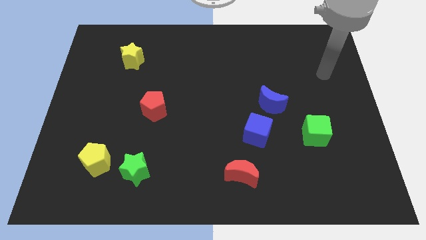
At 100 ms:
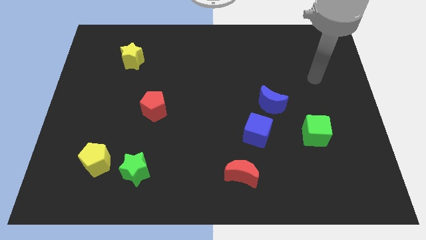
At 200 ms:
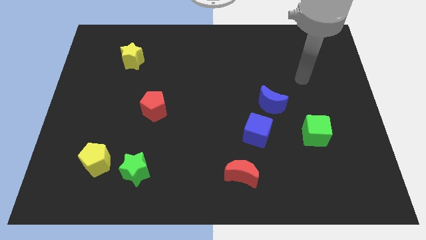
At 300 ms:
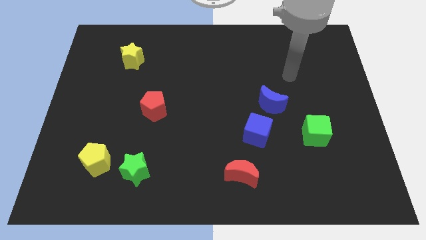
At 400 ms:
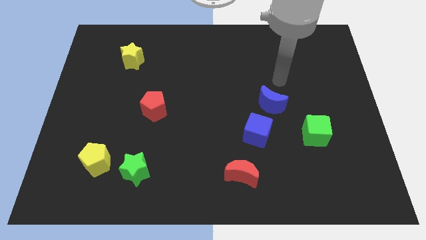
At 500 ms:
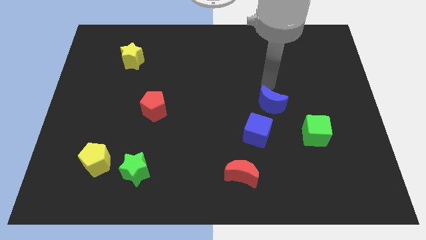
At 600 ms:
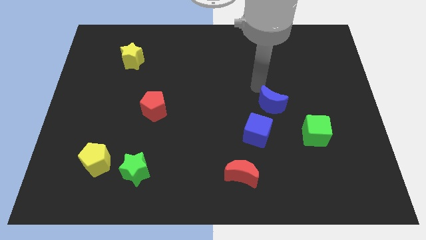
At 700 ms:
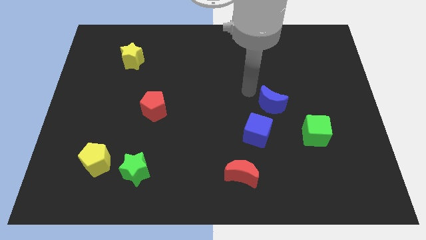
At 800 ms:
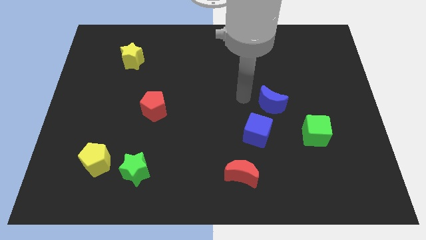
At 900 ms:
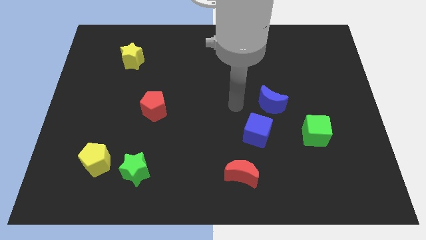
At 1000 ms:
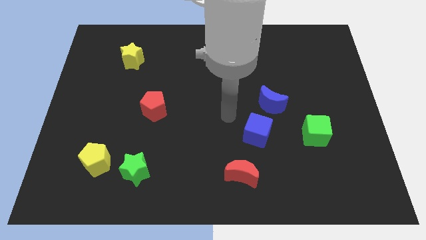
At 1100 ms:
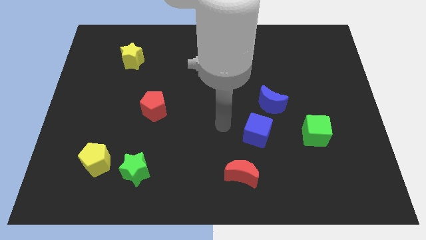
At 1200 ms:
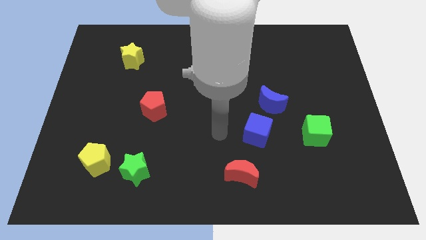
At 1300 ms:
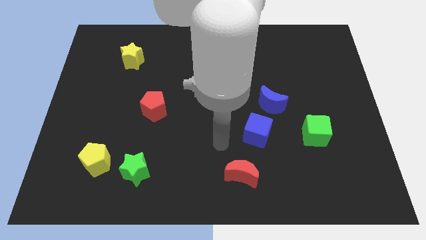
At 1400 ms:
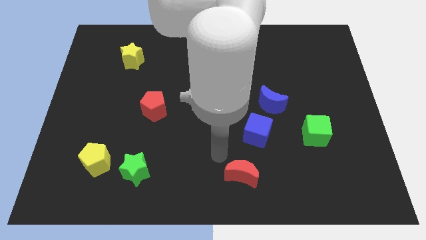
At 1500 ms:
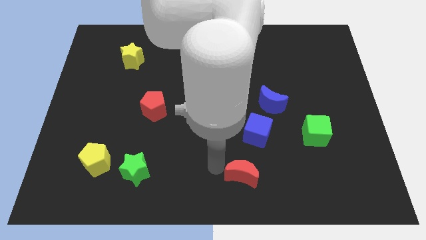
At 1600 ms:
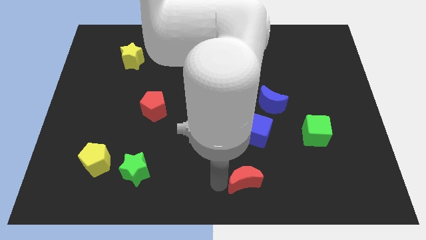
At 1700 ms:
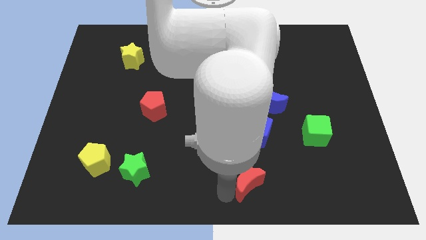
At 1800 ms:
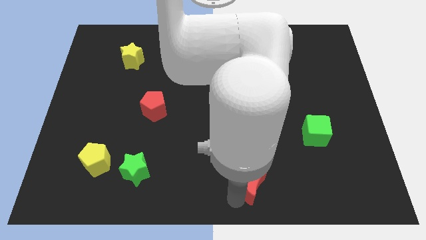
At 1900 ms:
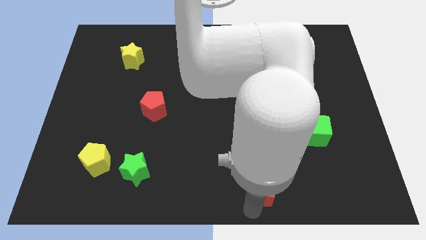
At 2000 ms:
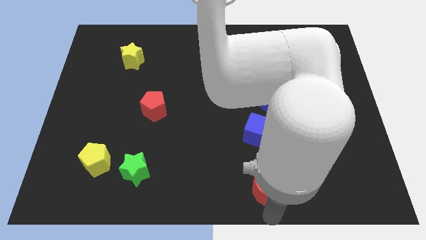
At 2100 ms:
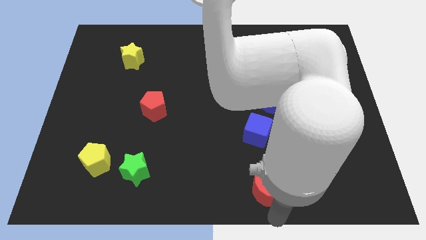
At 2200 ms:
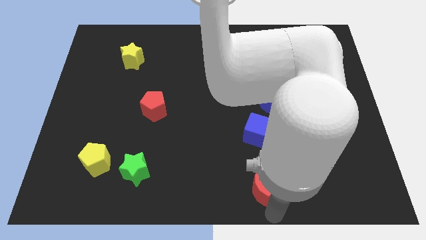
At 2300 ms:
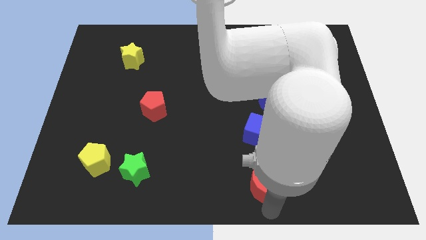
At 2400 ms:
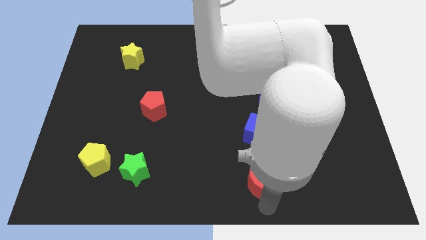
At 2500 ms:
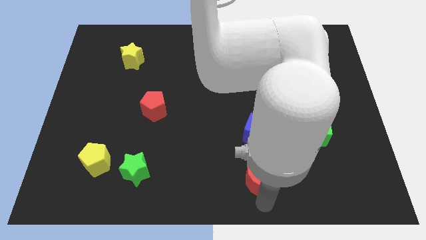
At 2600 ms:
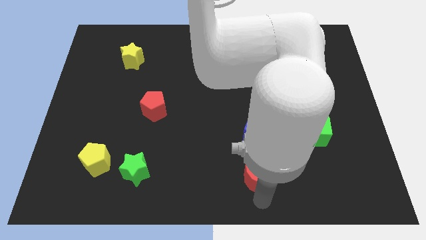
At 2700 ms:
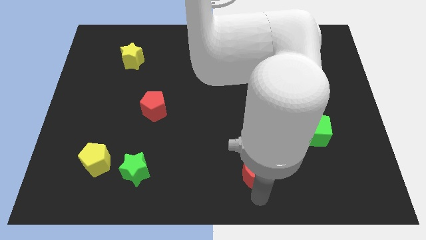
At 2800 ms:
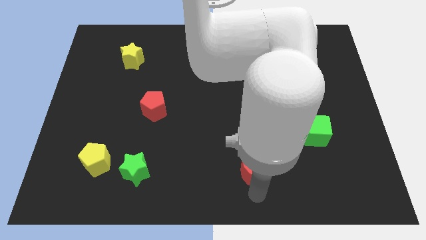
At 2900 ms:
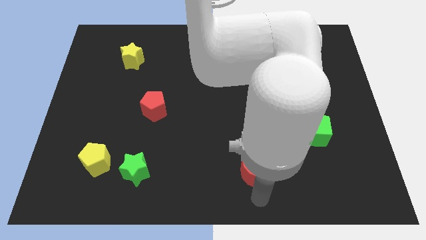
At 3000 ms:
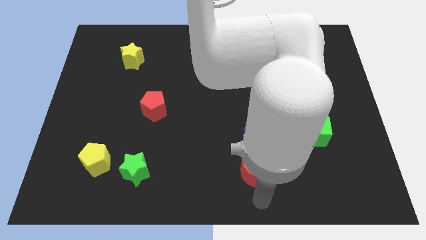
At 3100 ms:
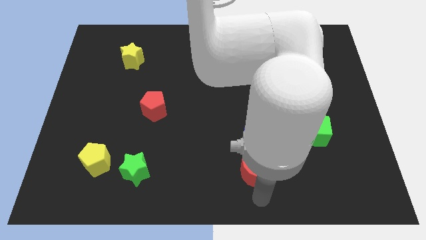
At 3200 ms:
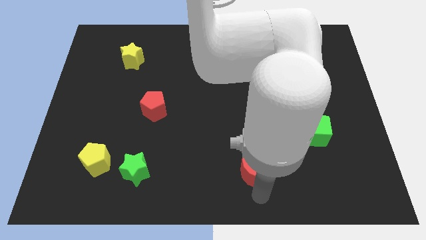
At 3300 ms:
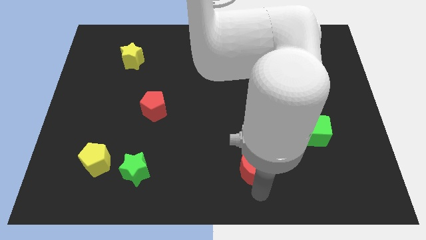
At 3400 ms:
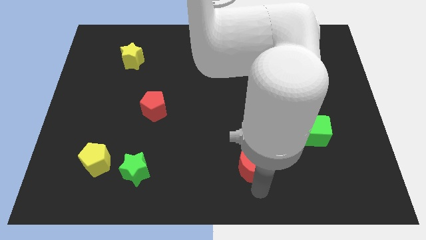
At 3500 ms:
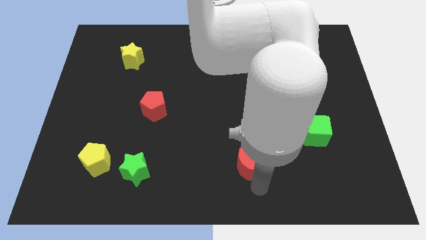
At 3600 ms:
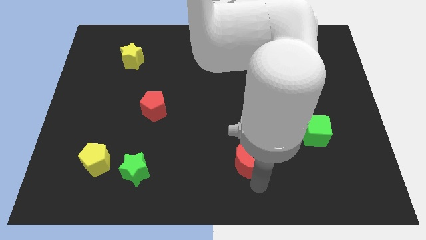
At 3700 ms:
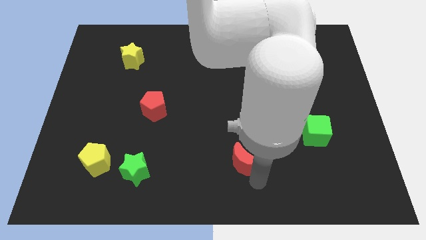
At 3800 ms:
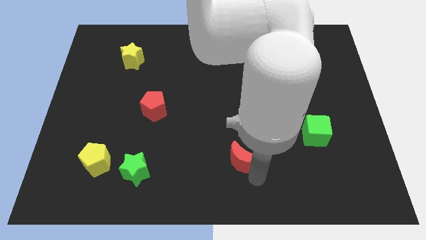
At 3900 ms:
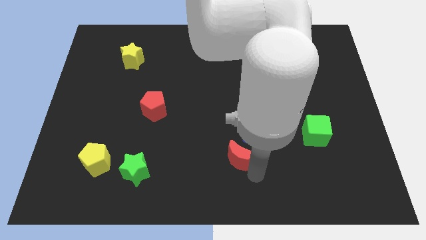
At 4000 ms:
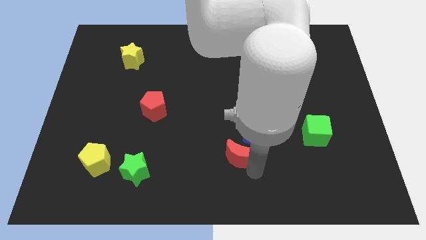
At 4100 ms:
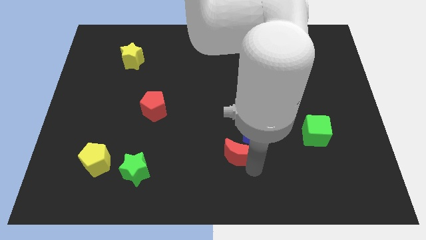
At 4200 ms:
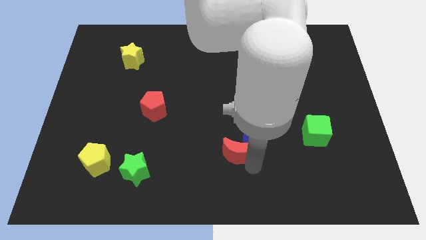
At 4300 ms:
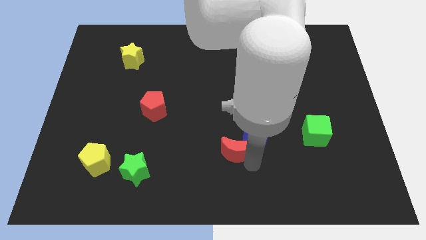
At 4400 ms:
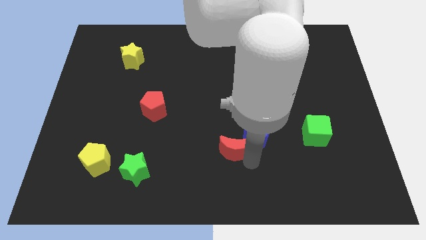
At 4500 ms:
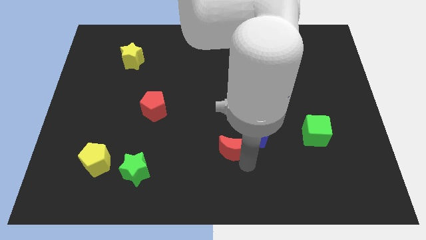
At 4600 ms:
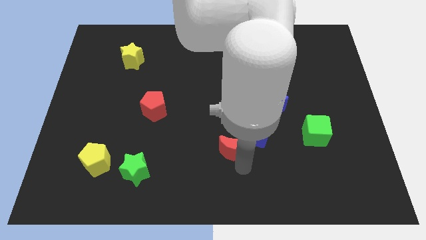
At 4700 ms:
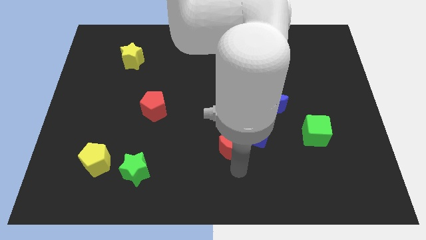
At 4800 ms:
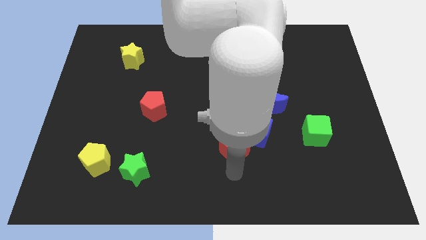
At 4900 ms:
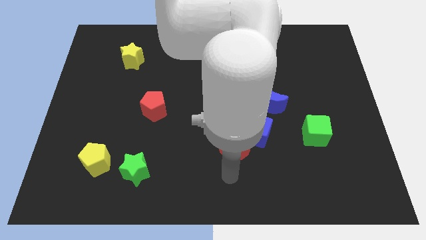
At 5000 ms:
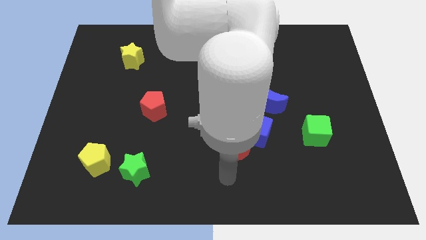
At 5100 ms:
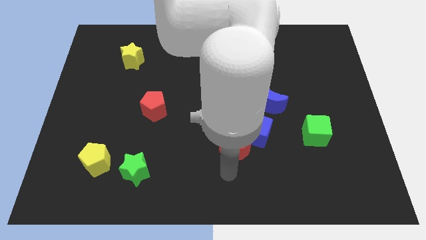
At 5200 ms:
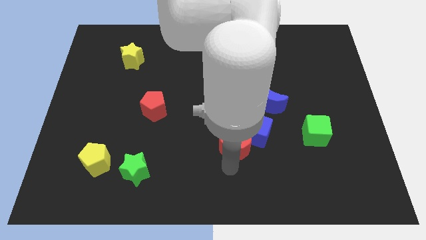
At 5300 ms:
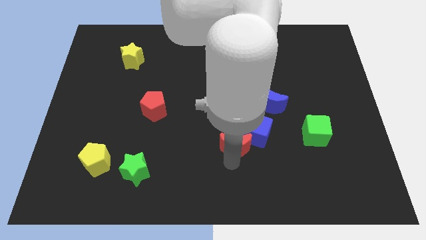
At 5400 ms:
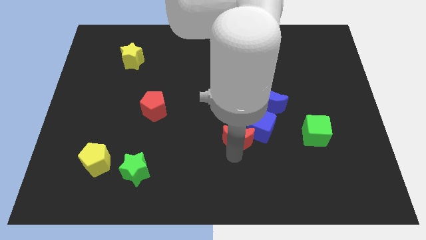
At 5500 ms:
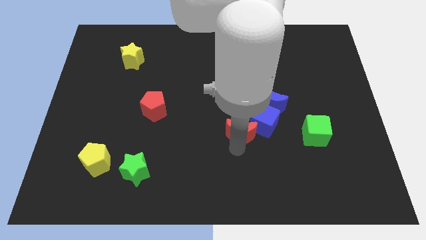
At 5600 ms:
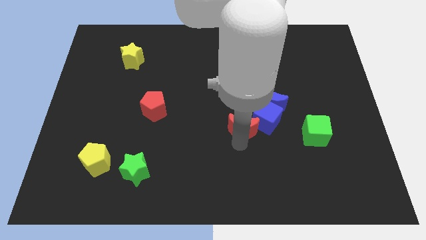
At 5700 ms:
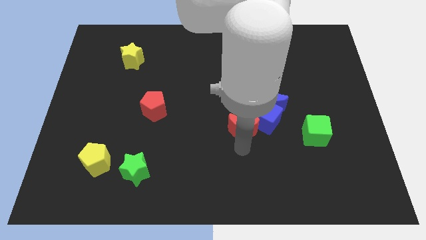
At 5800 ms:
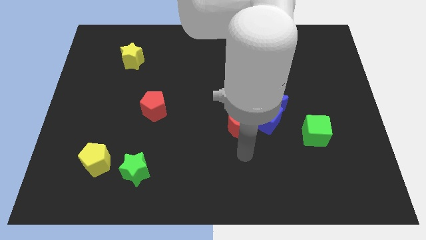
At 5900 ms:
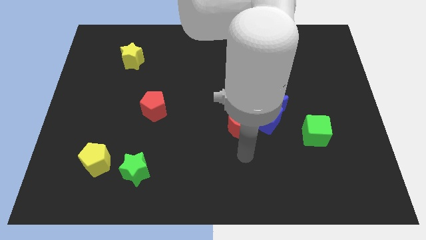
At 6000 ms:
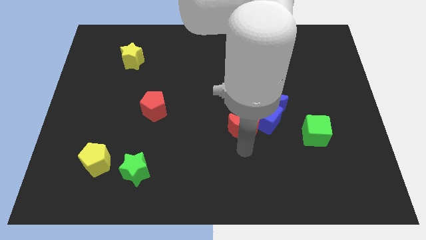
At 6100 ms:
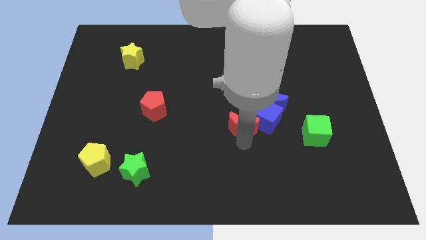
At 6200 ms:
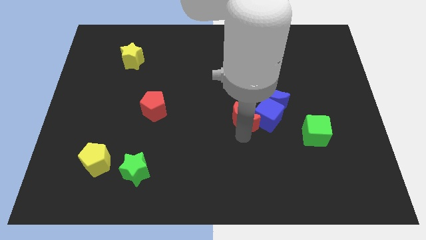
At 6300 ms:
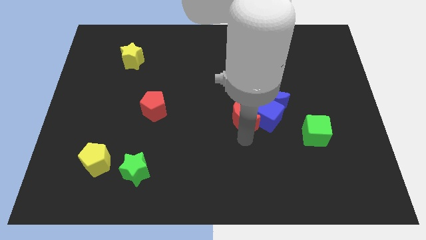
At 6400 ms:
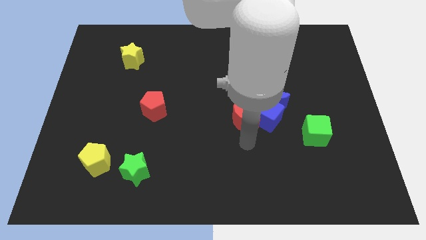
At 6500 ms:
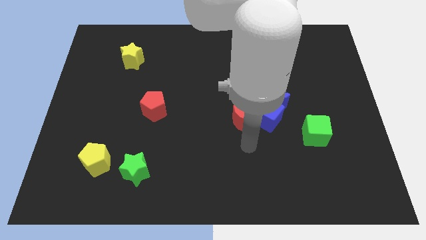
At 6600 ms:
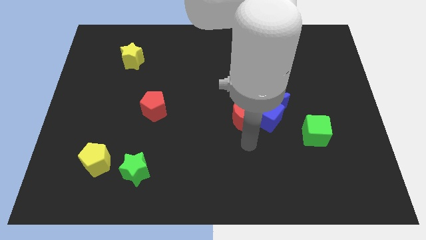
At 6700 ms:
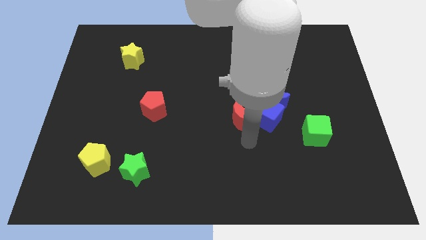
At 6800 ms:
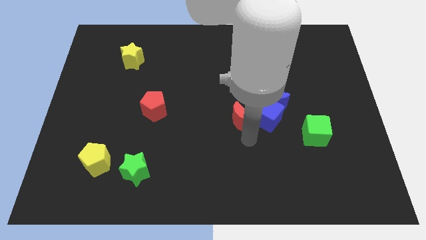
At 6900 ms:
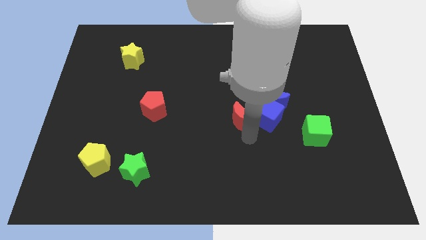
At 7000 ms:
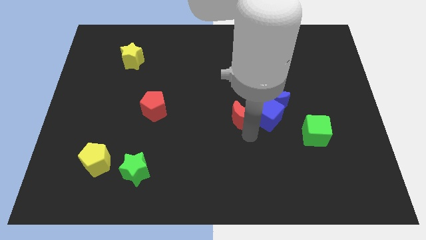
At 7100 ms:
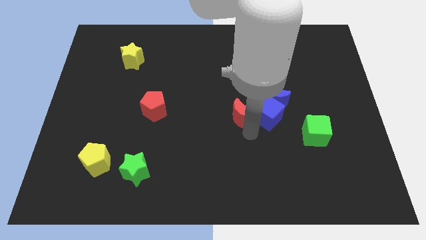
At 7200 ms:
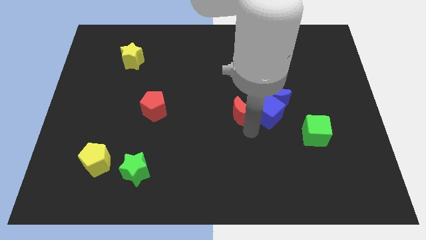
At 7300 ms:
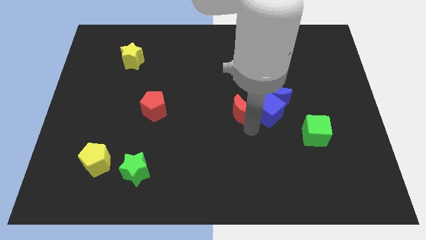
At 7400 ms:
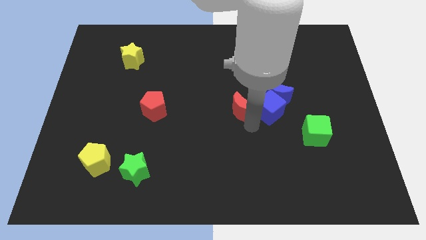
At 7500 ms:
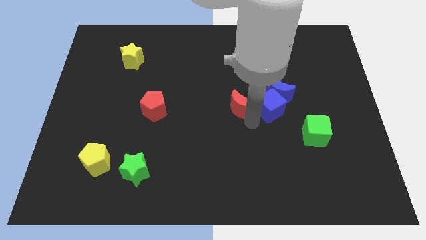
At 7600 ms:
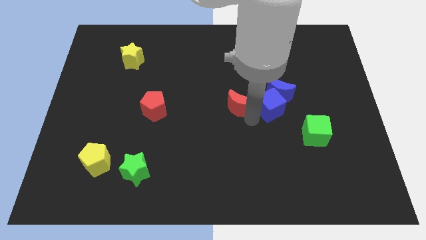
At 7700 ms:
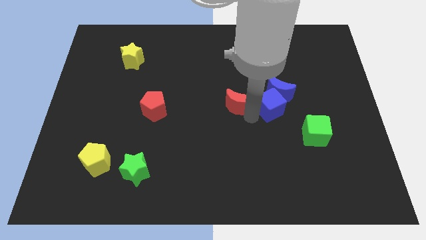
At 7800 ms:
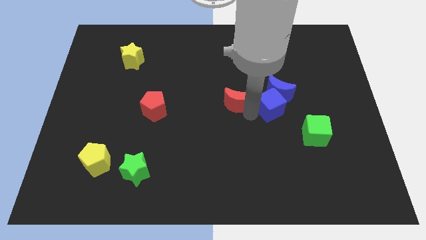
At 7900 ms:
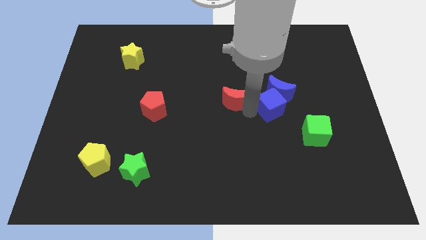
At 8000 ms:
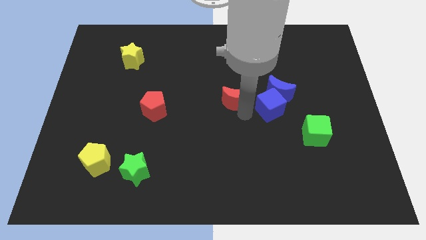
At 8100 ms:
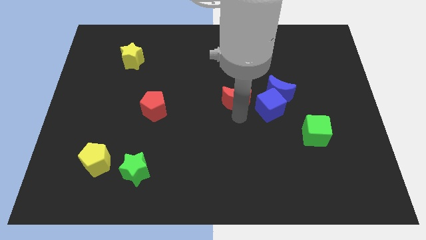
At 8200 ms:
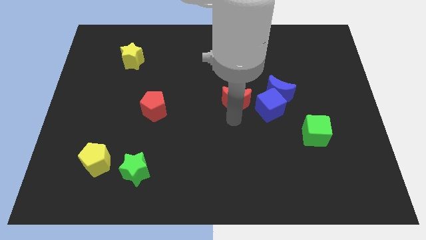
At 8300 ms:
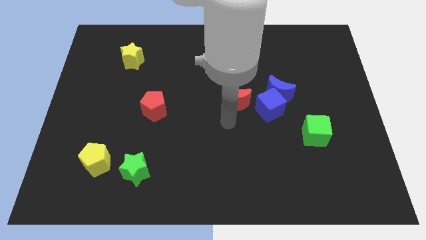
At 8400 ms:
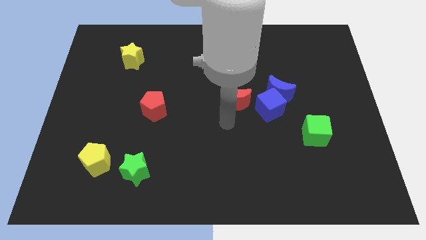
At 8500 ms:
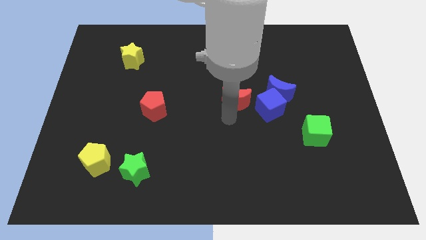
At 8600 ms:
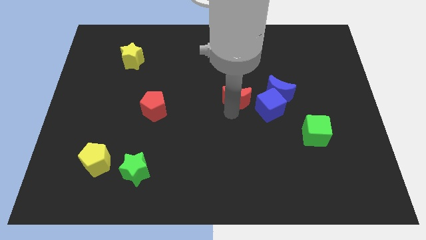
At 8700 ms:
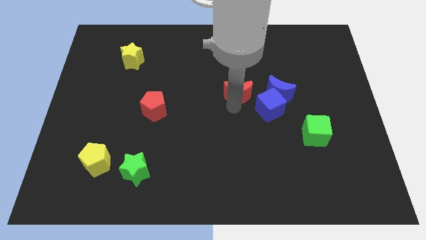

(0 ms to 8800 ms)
slide the red moon up
